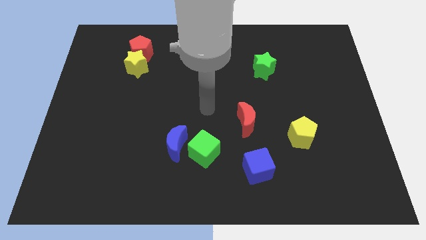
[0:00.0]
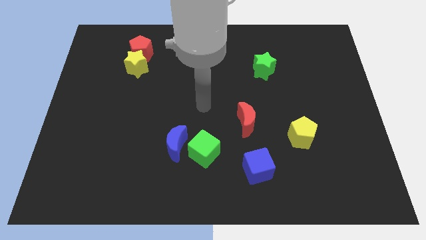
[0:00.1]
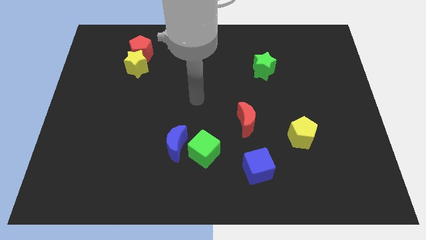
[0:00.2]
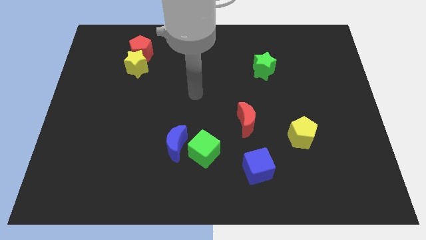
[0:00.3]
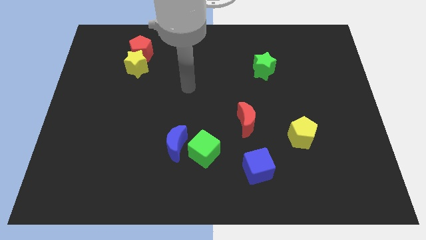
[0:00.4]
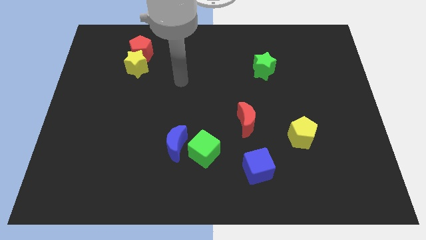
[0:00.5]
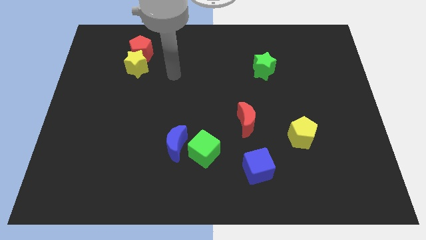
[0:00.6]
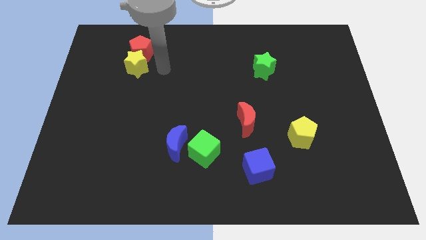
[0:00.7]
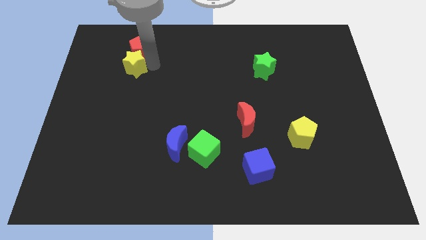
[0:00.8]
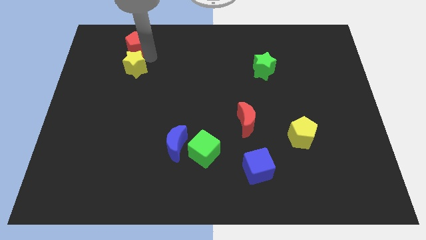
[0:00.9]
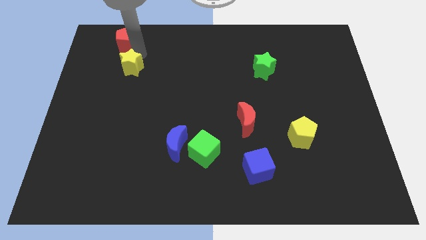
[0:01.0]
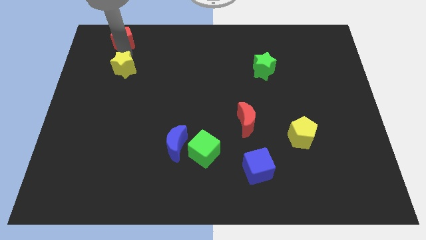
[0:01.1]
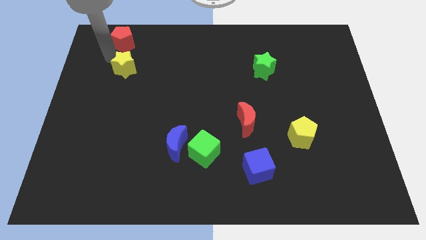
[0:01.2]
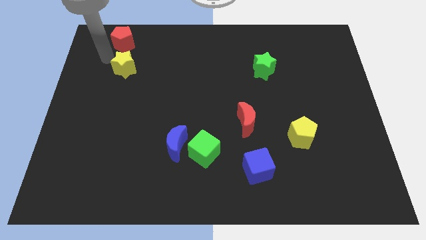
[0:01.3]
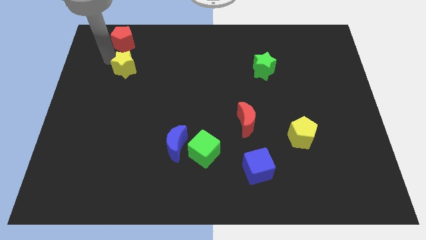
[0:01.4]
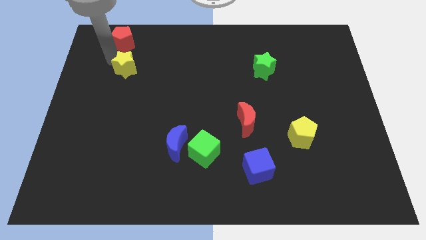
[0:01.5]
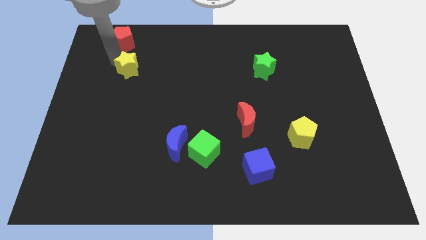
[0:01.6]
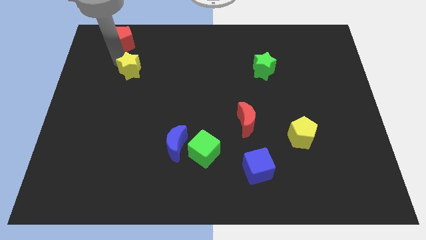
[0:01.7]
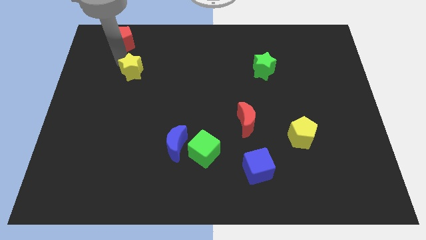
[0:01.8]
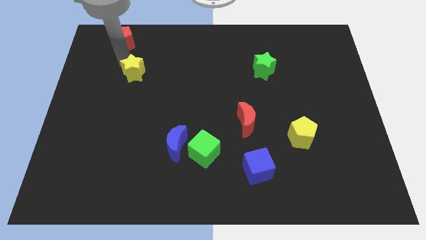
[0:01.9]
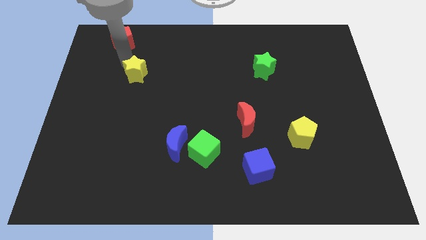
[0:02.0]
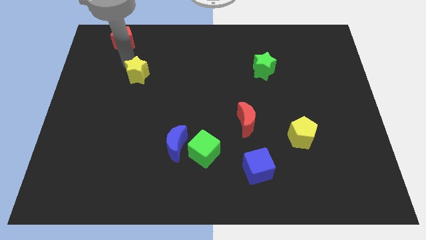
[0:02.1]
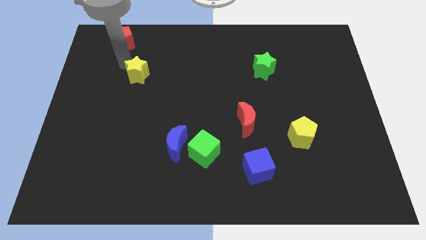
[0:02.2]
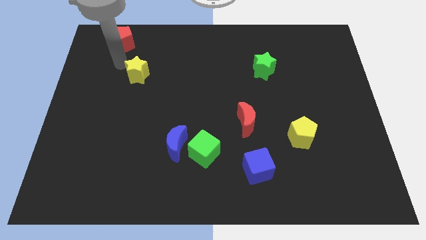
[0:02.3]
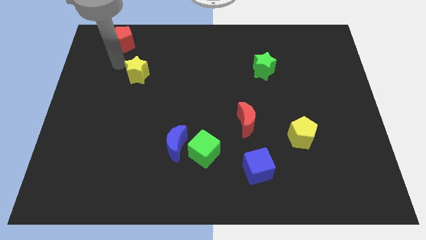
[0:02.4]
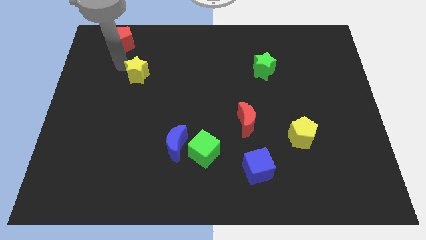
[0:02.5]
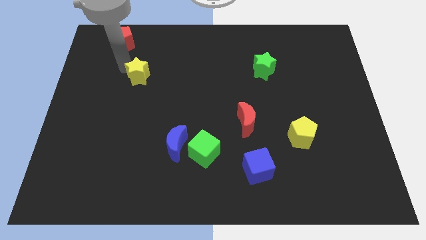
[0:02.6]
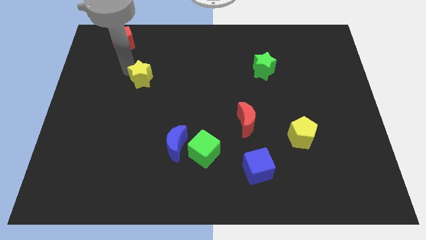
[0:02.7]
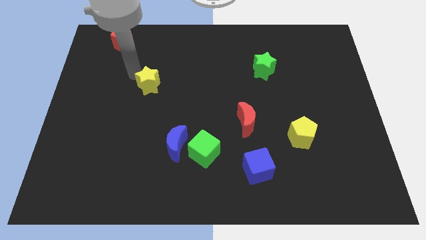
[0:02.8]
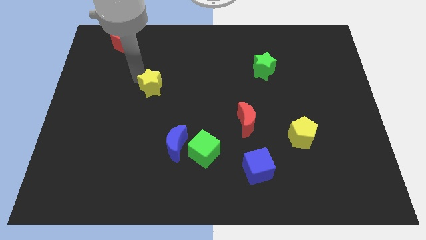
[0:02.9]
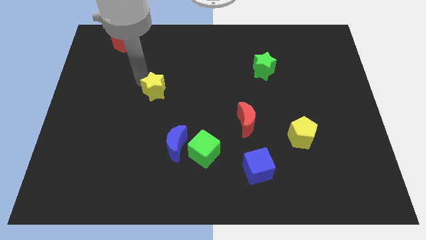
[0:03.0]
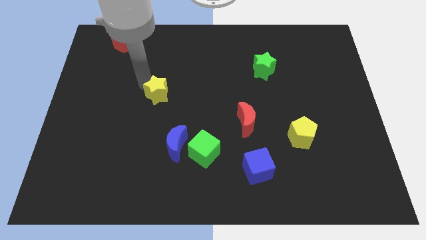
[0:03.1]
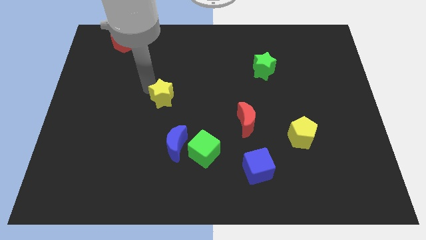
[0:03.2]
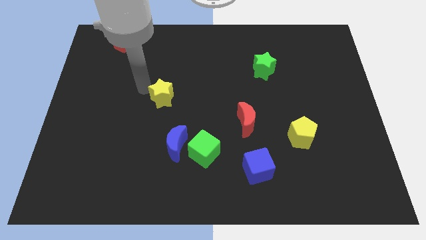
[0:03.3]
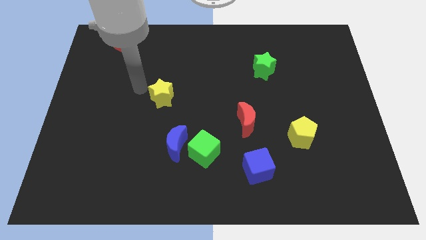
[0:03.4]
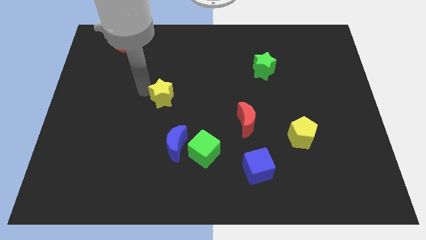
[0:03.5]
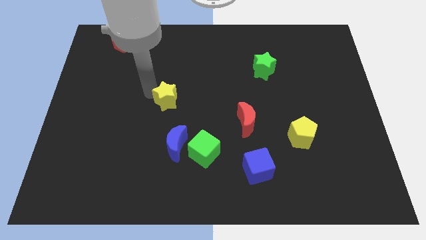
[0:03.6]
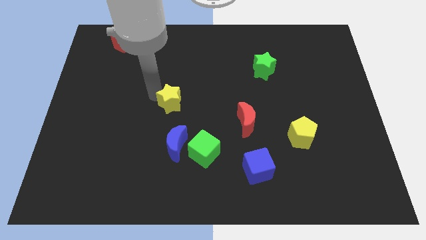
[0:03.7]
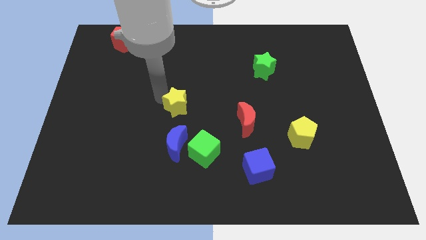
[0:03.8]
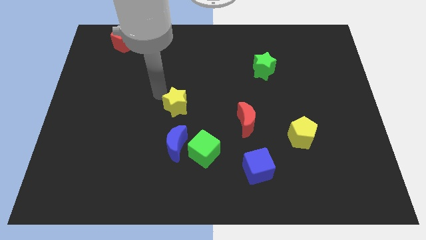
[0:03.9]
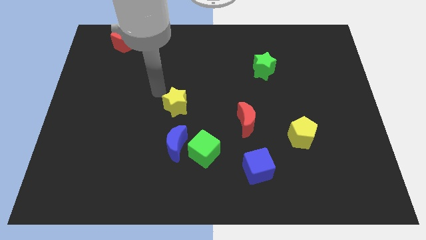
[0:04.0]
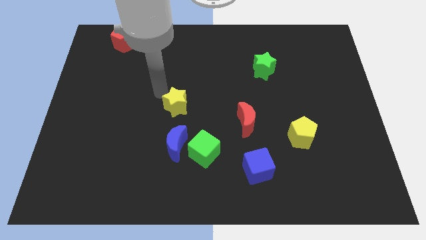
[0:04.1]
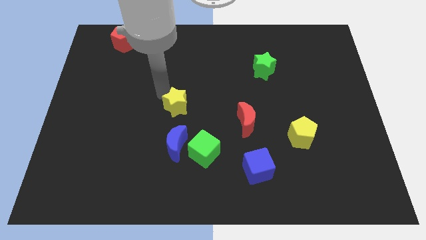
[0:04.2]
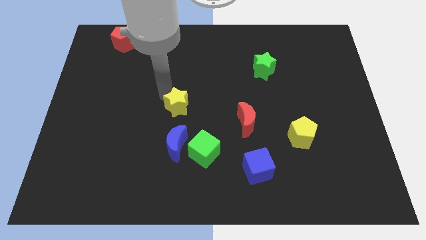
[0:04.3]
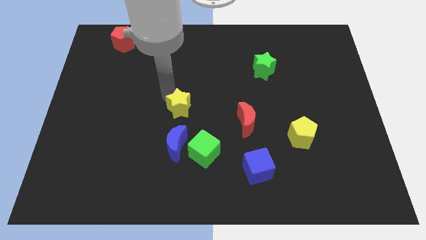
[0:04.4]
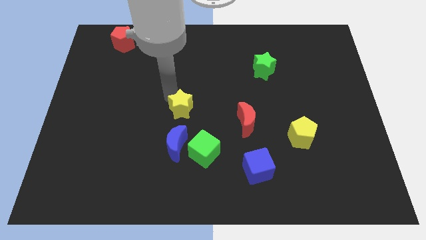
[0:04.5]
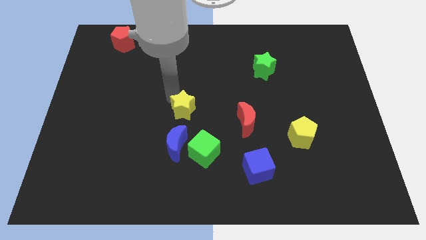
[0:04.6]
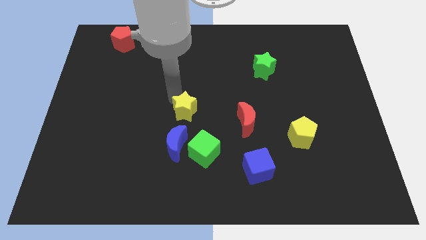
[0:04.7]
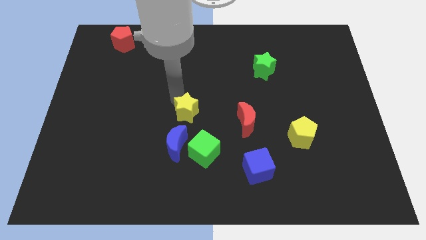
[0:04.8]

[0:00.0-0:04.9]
move the yellow star diagonally down and right

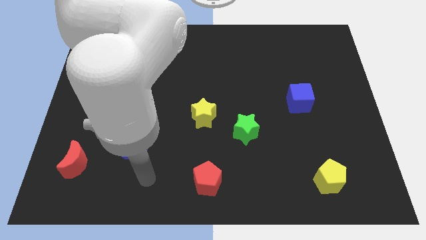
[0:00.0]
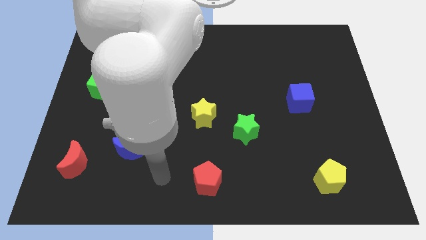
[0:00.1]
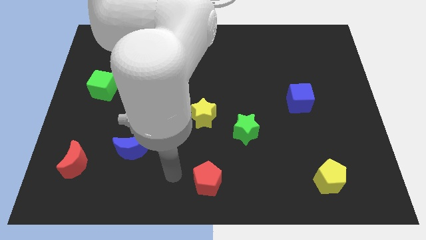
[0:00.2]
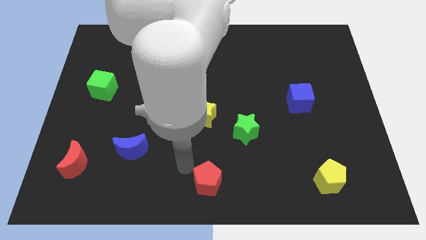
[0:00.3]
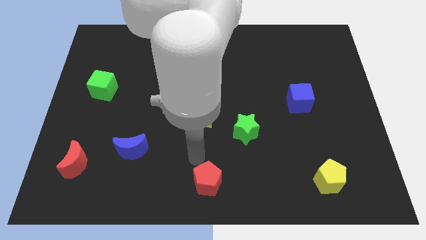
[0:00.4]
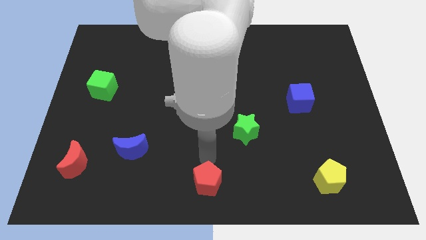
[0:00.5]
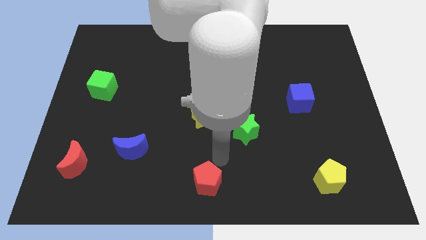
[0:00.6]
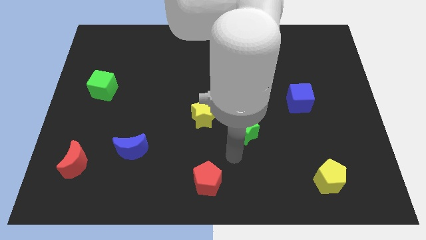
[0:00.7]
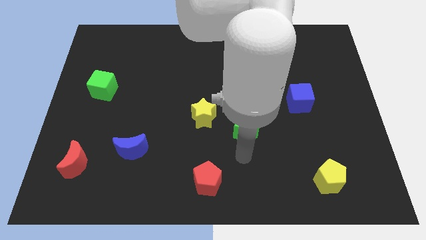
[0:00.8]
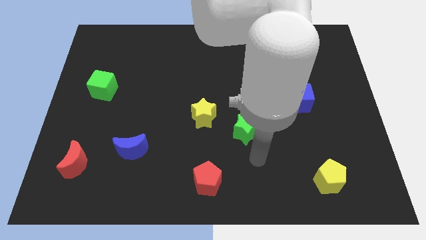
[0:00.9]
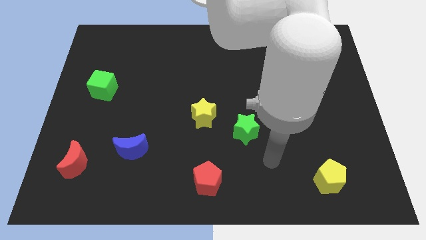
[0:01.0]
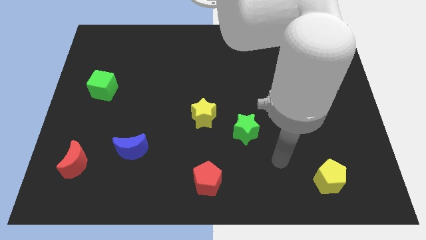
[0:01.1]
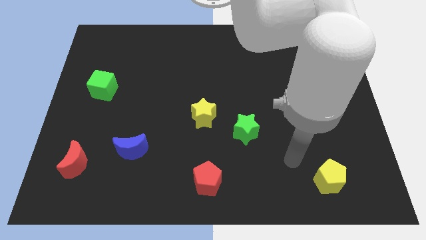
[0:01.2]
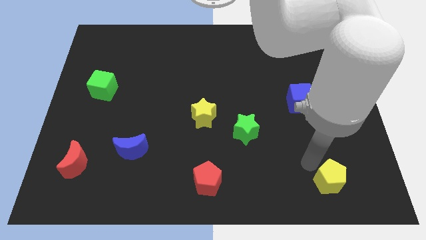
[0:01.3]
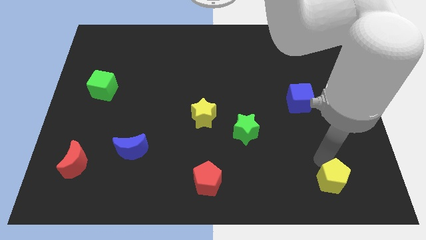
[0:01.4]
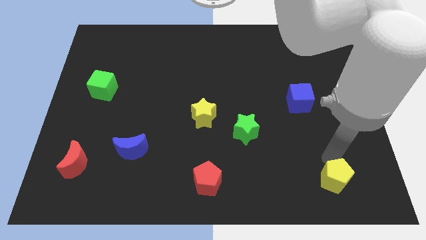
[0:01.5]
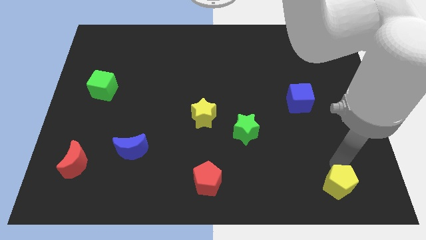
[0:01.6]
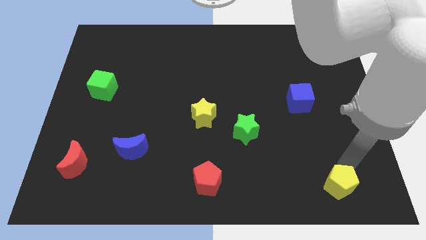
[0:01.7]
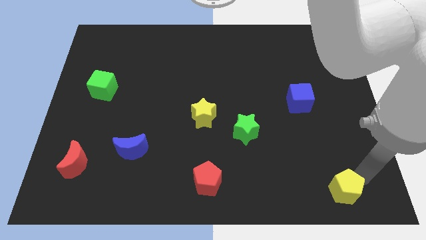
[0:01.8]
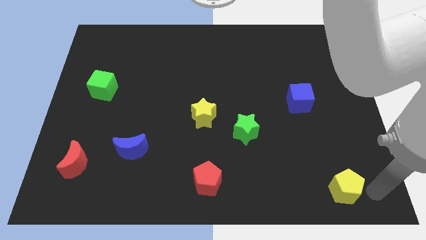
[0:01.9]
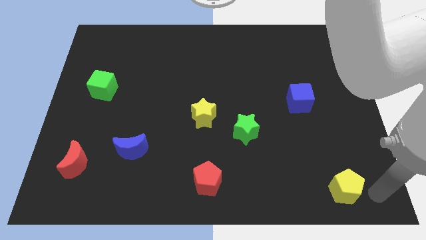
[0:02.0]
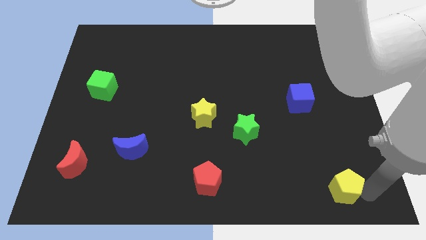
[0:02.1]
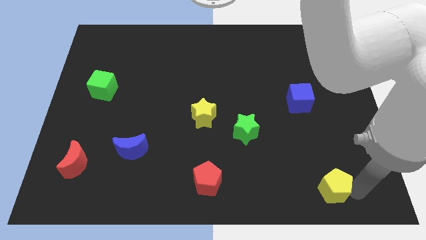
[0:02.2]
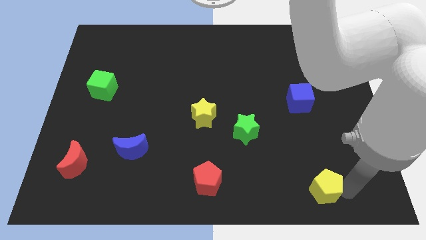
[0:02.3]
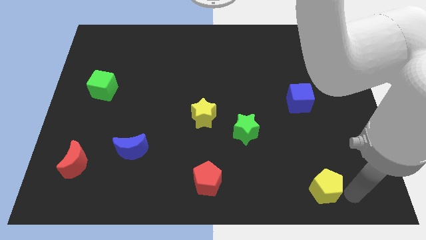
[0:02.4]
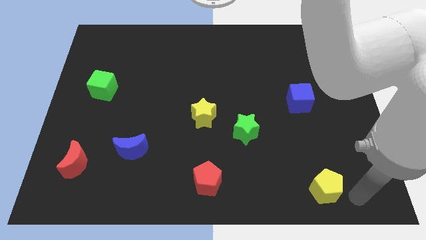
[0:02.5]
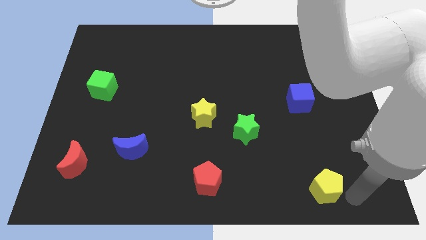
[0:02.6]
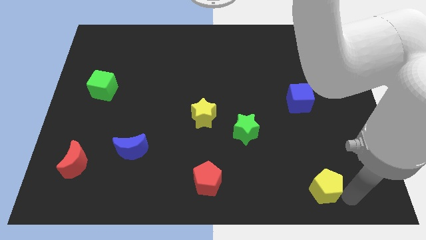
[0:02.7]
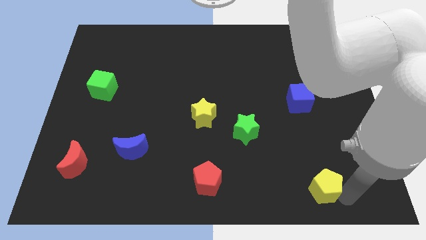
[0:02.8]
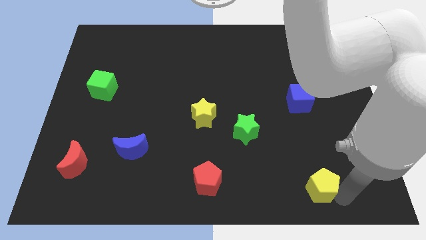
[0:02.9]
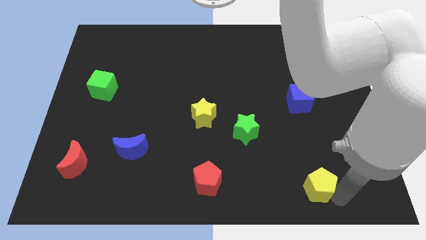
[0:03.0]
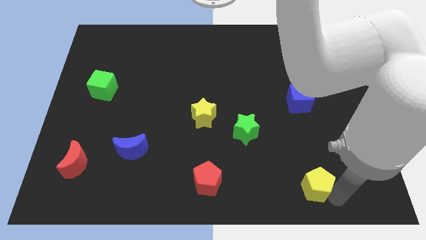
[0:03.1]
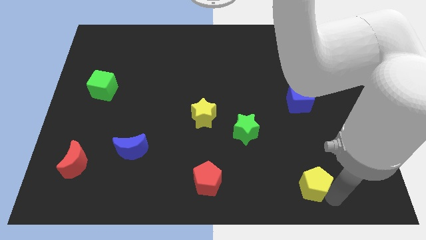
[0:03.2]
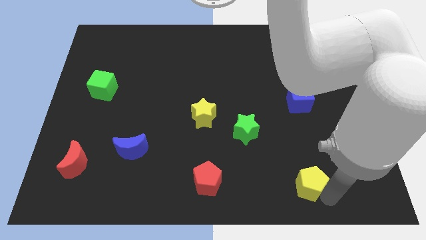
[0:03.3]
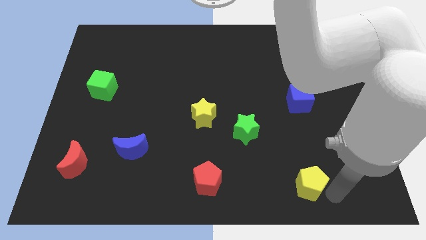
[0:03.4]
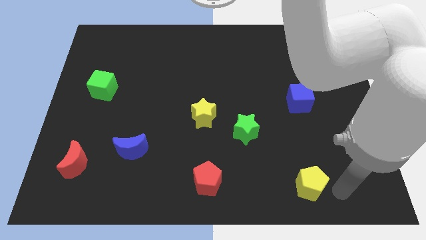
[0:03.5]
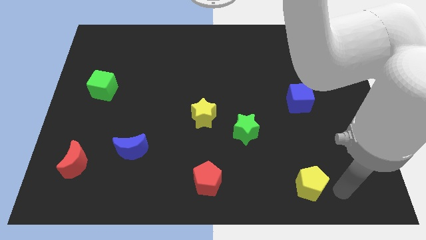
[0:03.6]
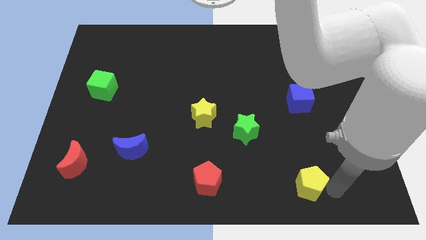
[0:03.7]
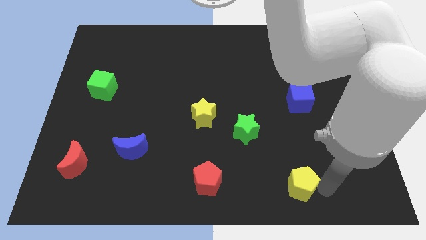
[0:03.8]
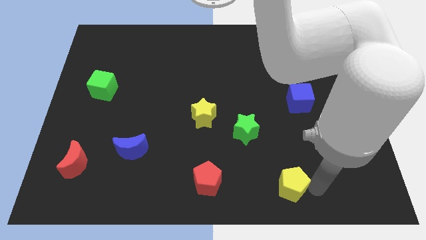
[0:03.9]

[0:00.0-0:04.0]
push the yellow pentagon a little bit left
